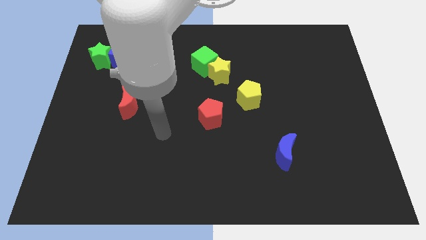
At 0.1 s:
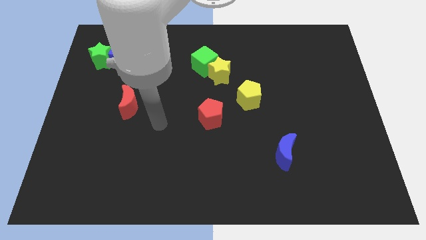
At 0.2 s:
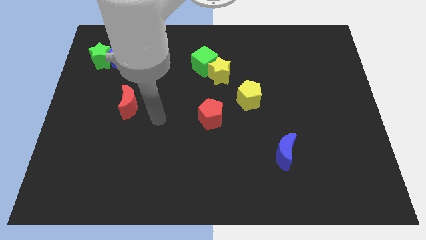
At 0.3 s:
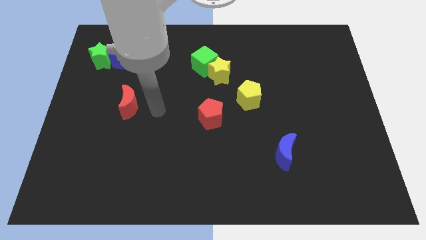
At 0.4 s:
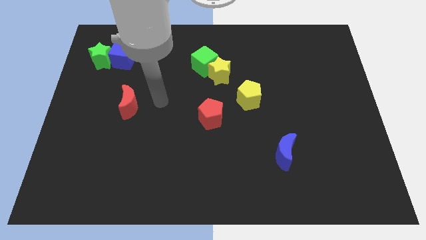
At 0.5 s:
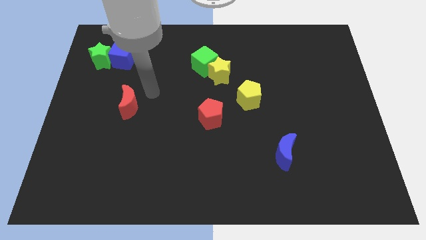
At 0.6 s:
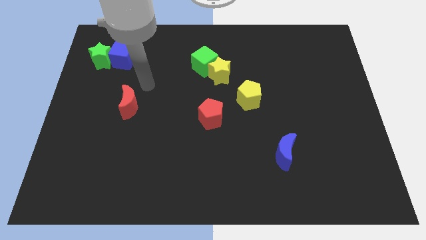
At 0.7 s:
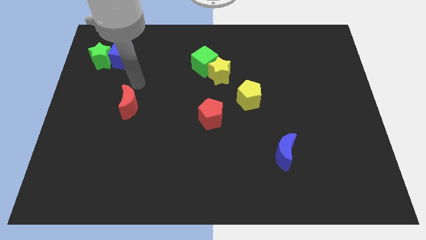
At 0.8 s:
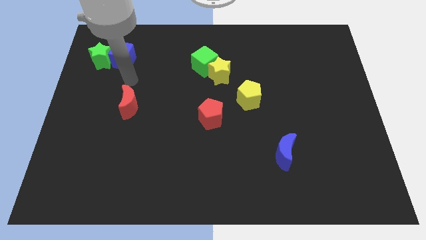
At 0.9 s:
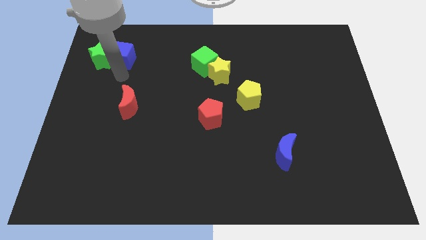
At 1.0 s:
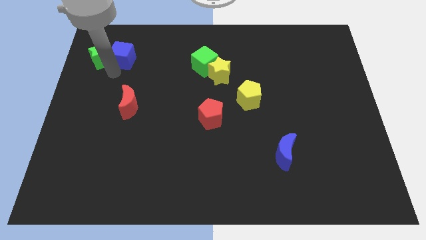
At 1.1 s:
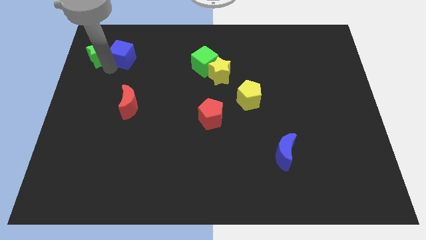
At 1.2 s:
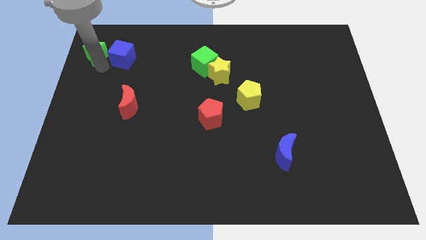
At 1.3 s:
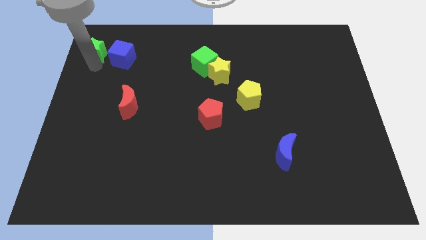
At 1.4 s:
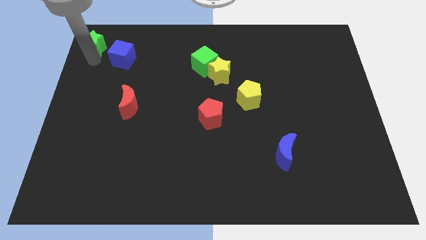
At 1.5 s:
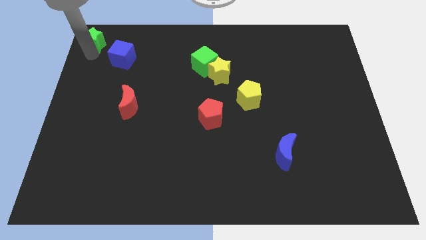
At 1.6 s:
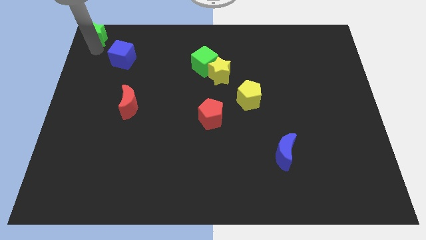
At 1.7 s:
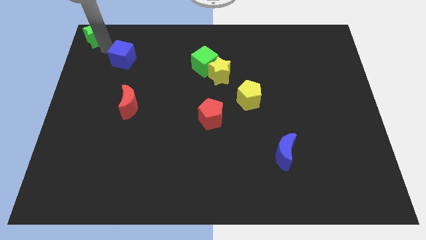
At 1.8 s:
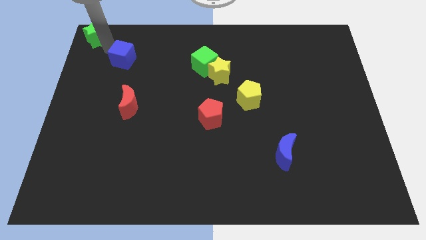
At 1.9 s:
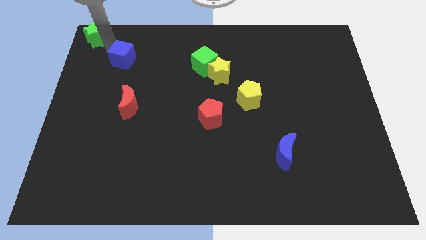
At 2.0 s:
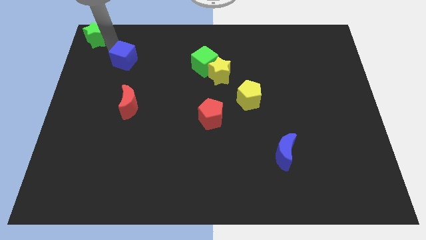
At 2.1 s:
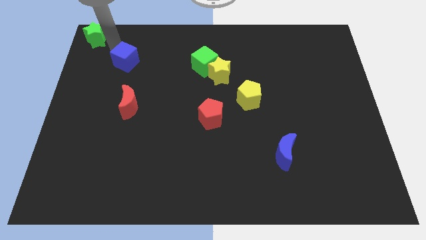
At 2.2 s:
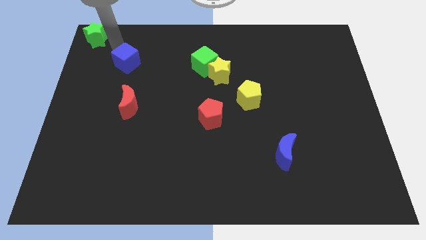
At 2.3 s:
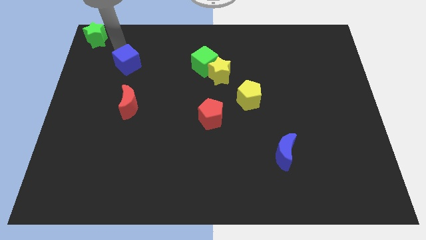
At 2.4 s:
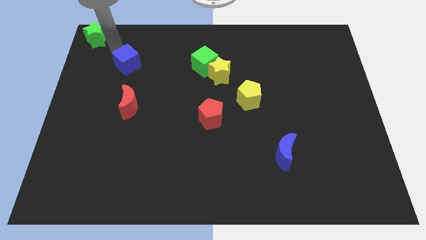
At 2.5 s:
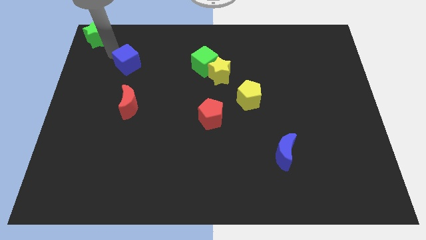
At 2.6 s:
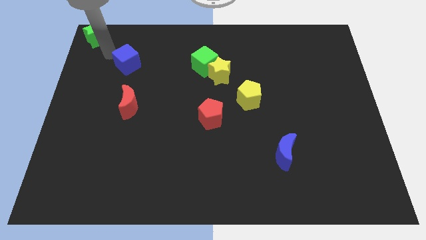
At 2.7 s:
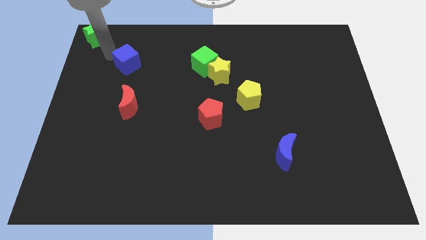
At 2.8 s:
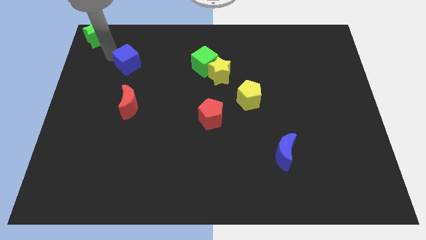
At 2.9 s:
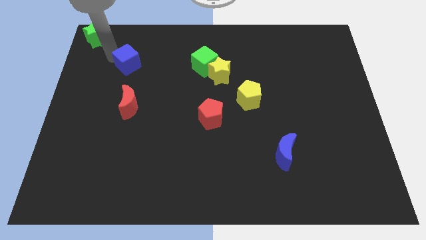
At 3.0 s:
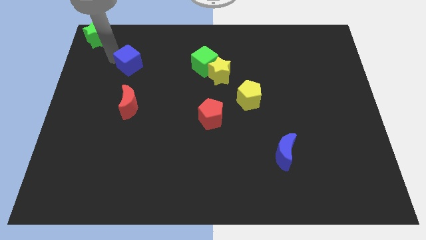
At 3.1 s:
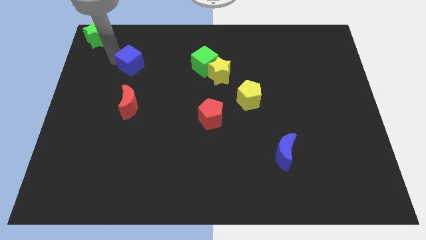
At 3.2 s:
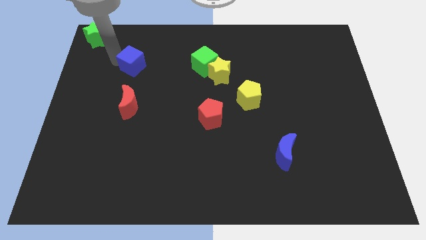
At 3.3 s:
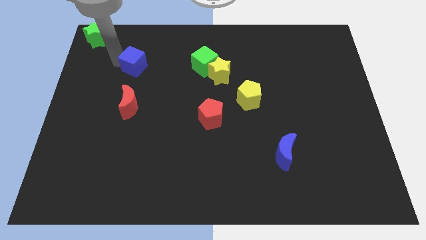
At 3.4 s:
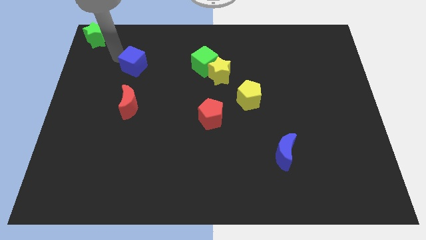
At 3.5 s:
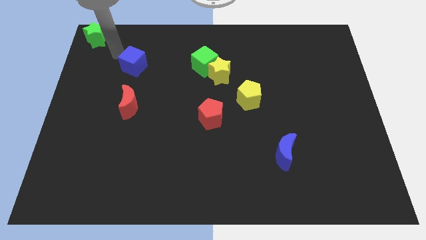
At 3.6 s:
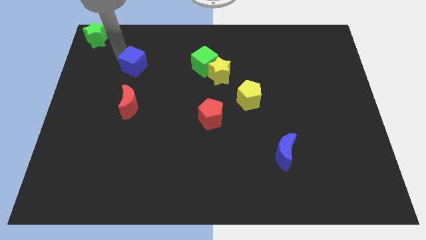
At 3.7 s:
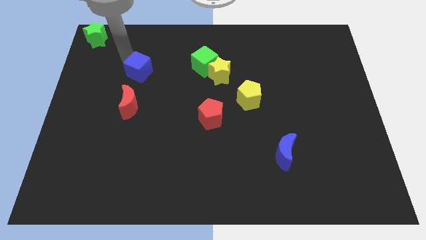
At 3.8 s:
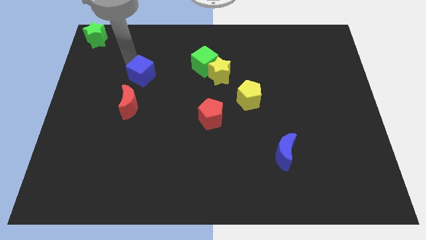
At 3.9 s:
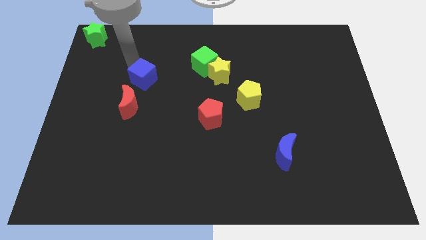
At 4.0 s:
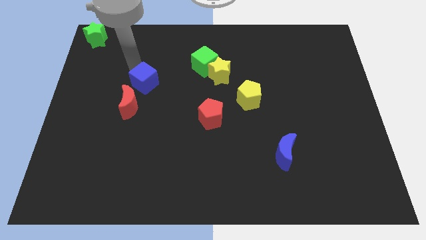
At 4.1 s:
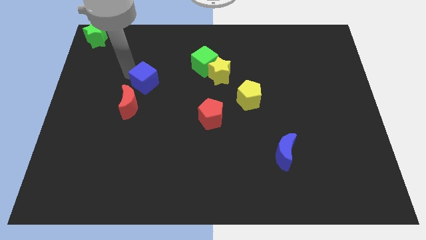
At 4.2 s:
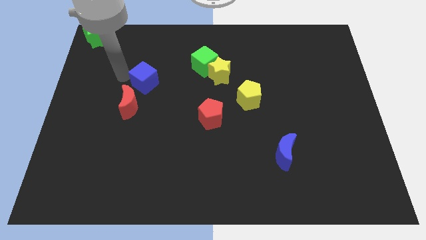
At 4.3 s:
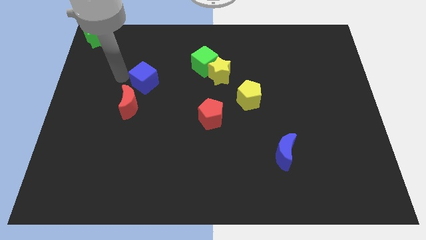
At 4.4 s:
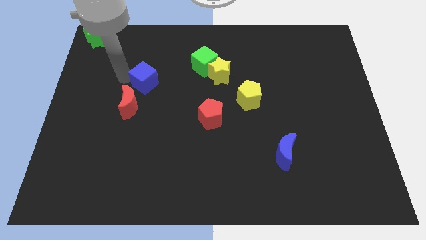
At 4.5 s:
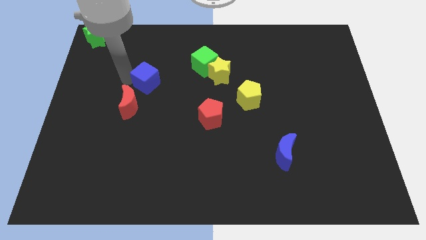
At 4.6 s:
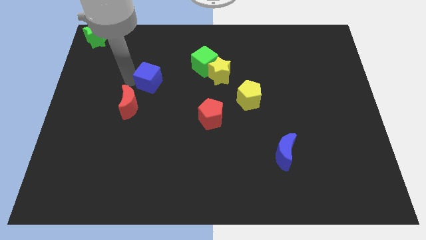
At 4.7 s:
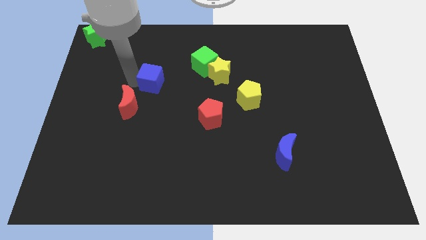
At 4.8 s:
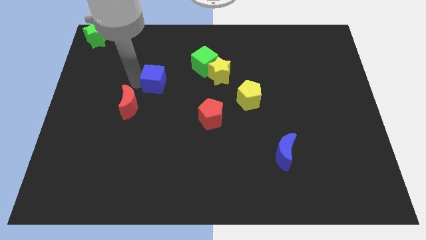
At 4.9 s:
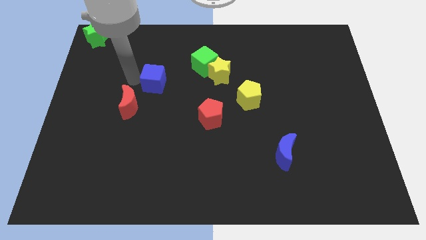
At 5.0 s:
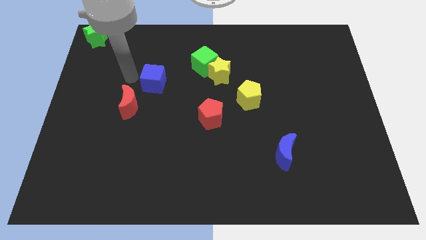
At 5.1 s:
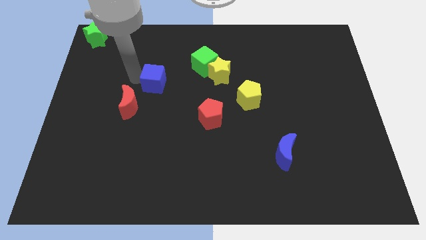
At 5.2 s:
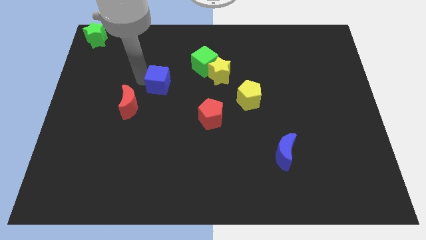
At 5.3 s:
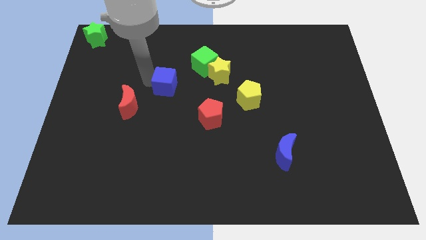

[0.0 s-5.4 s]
slide the blue cube to the center of the board
